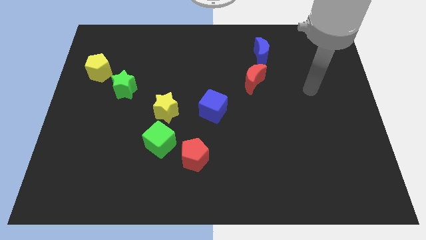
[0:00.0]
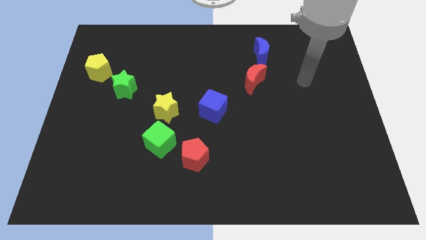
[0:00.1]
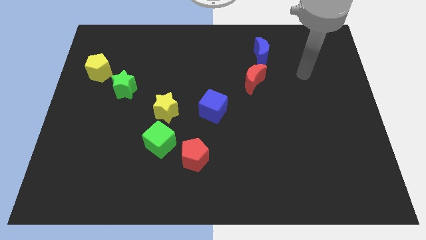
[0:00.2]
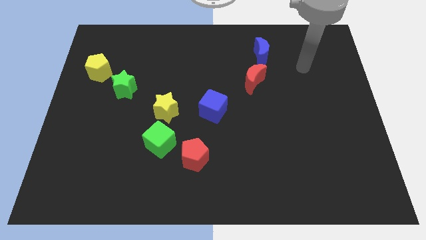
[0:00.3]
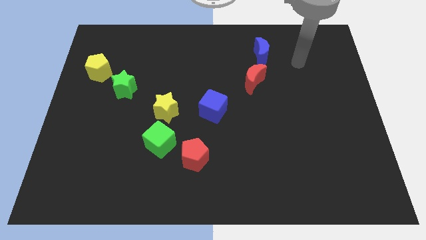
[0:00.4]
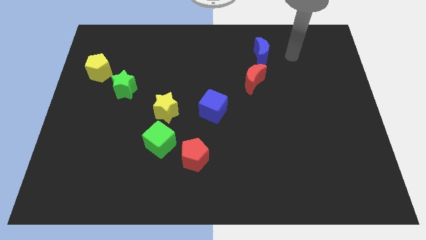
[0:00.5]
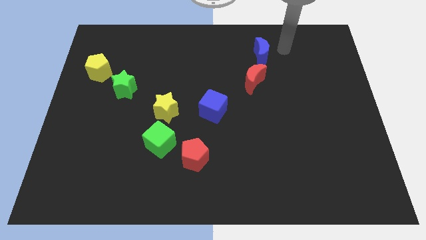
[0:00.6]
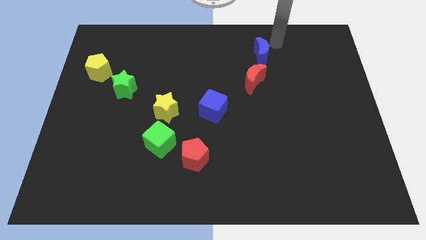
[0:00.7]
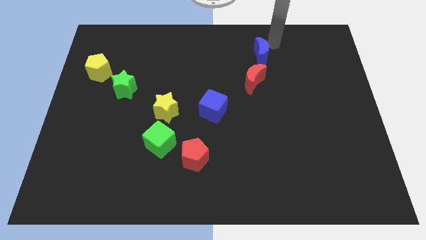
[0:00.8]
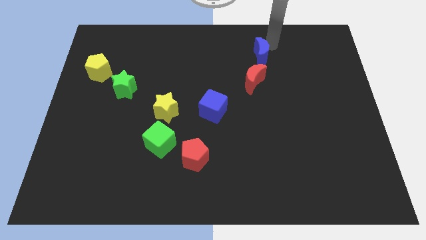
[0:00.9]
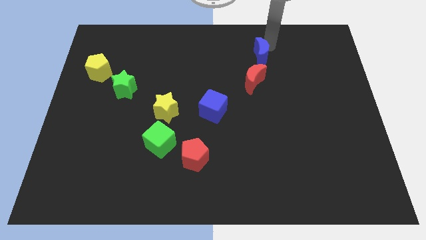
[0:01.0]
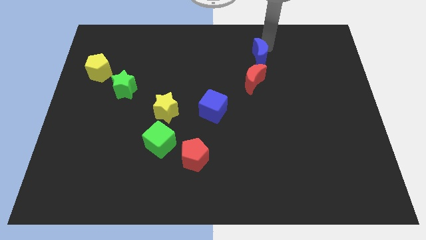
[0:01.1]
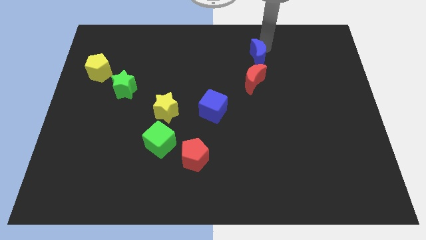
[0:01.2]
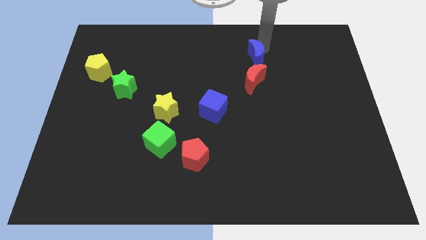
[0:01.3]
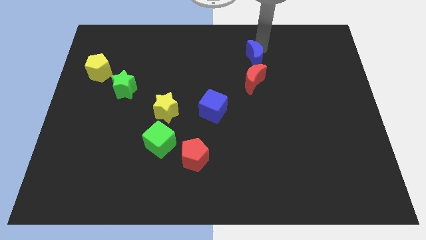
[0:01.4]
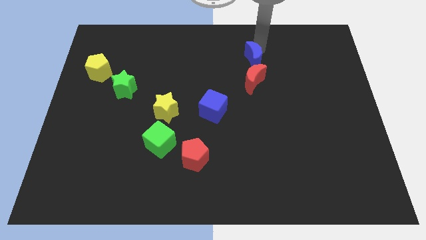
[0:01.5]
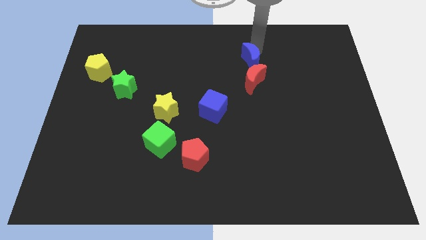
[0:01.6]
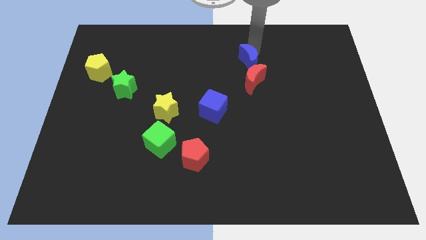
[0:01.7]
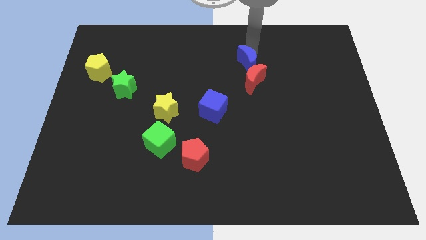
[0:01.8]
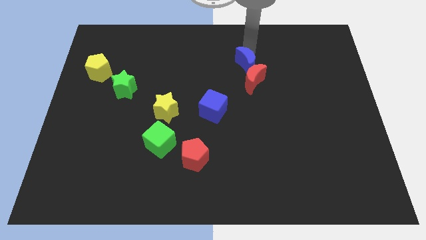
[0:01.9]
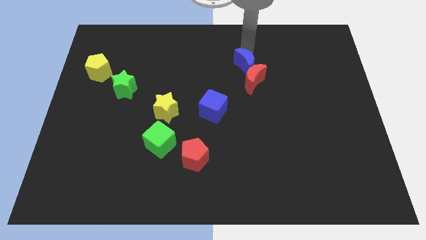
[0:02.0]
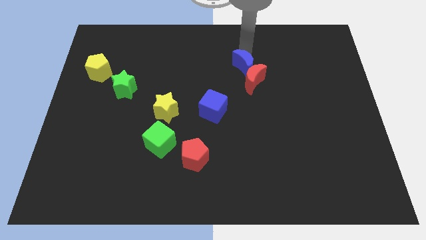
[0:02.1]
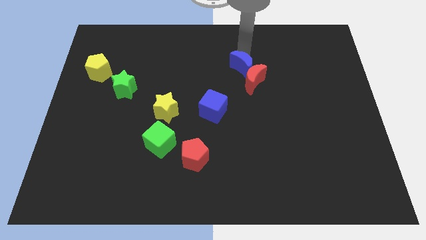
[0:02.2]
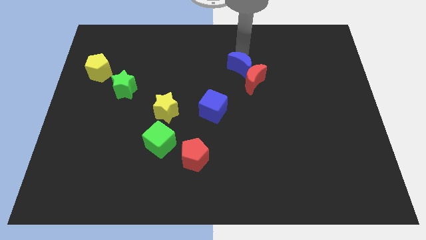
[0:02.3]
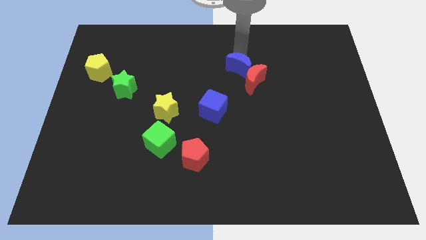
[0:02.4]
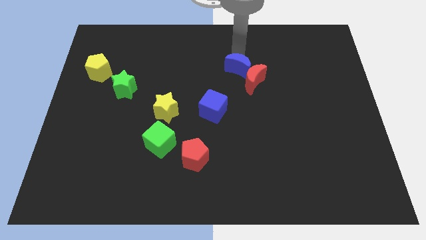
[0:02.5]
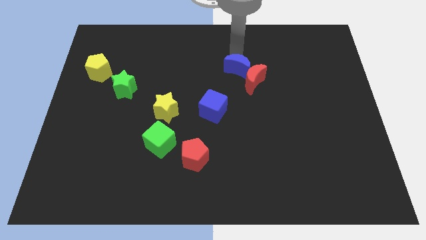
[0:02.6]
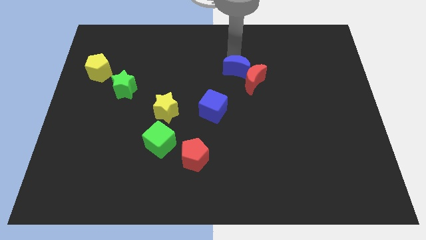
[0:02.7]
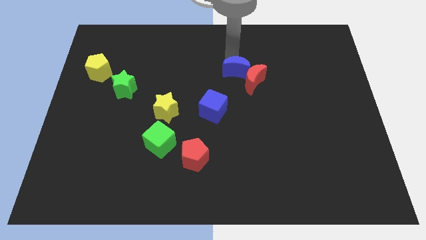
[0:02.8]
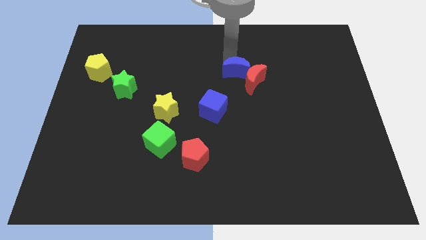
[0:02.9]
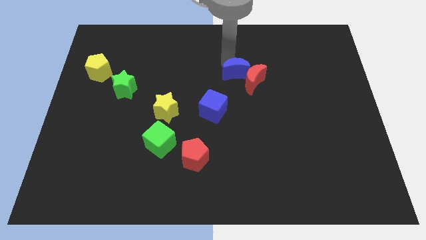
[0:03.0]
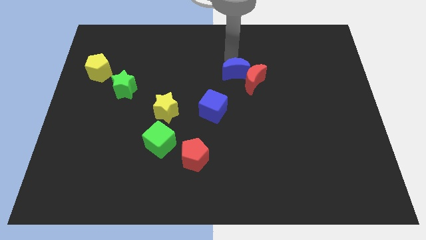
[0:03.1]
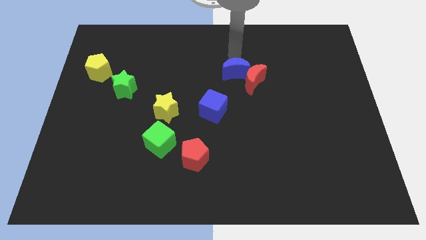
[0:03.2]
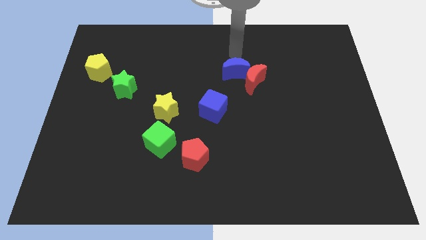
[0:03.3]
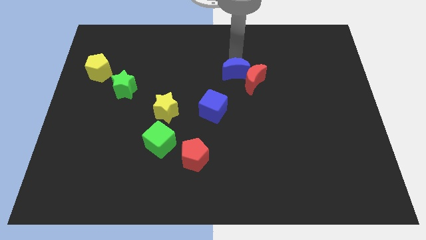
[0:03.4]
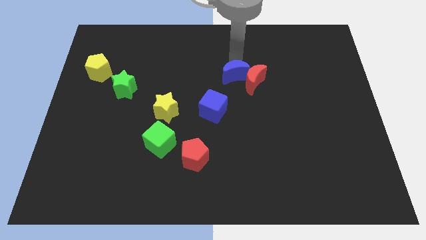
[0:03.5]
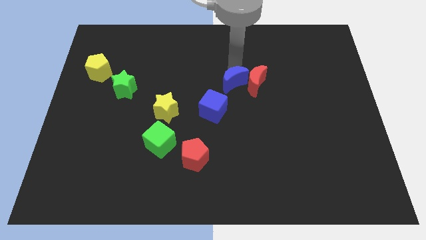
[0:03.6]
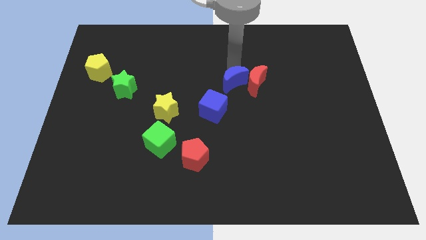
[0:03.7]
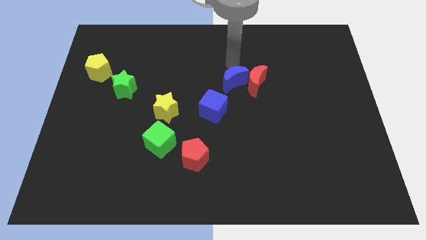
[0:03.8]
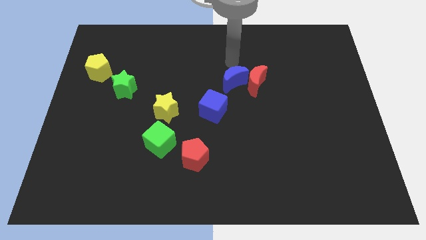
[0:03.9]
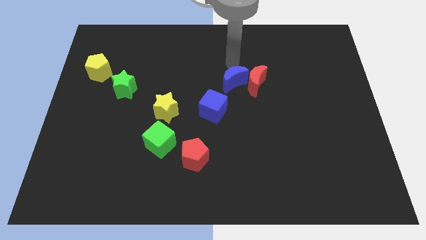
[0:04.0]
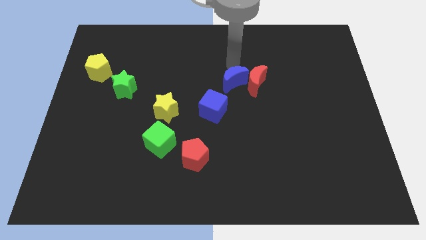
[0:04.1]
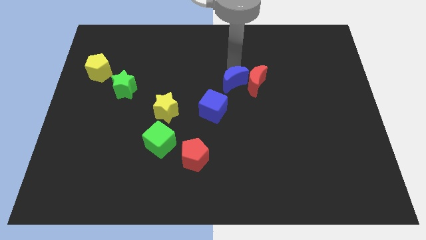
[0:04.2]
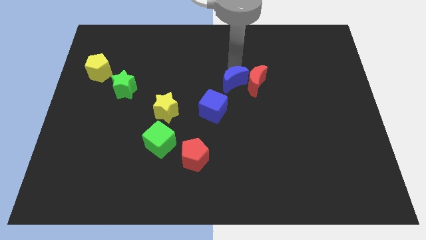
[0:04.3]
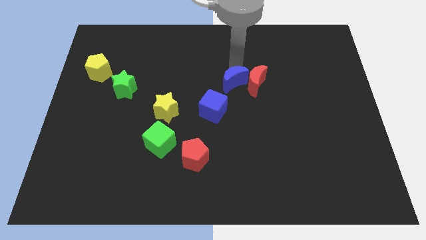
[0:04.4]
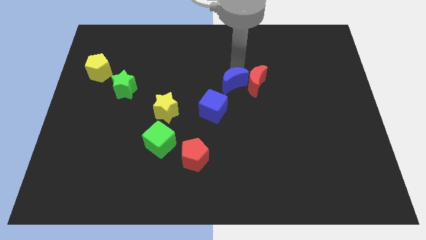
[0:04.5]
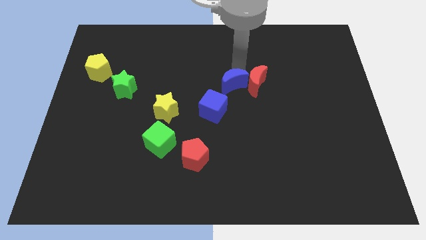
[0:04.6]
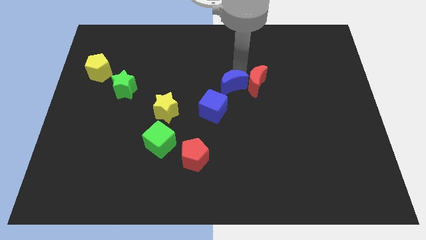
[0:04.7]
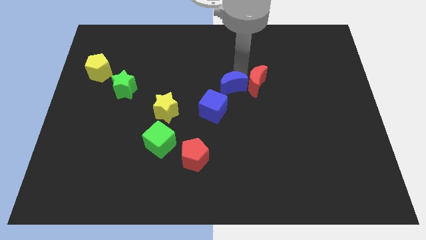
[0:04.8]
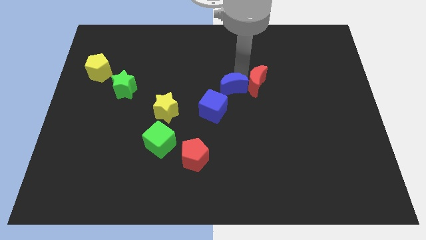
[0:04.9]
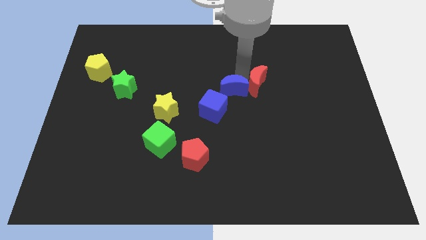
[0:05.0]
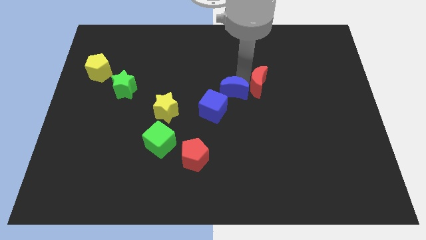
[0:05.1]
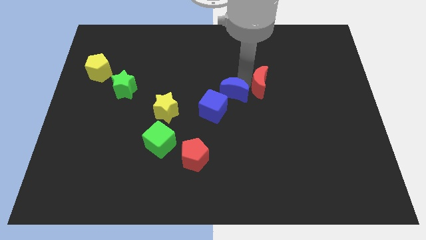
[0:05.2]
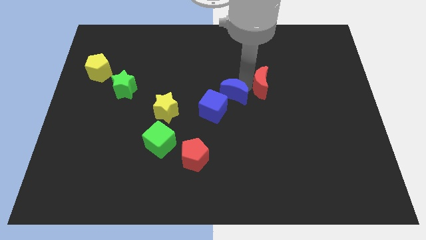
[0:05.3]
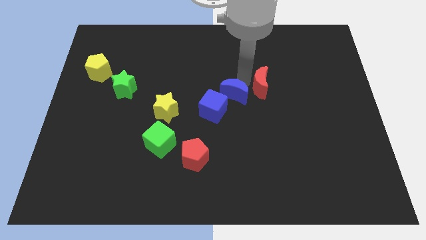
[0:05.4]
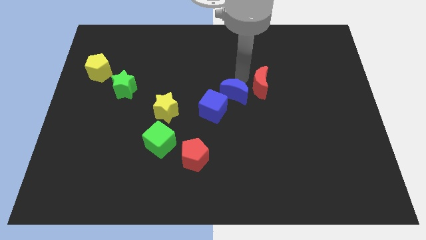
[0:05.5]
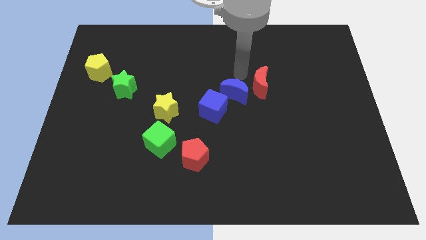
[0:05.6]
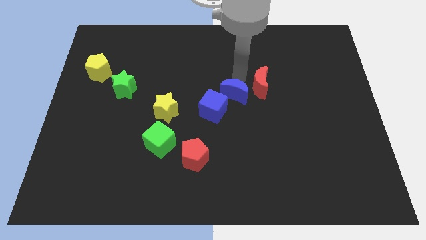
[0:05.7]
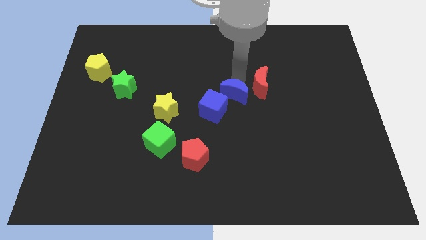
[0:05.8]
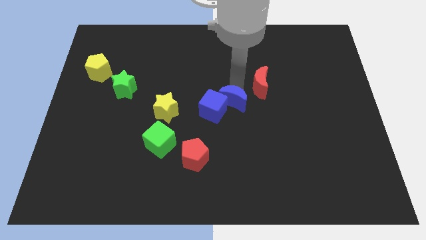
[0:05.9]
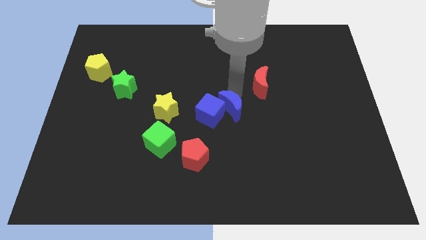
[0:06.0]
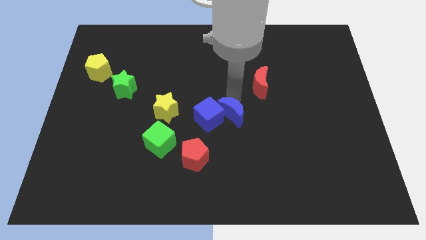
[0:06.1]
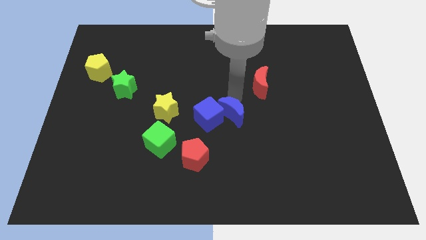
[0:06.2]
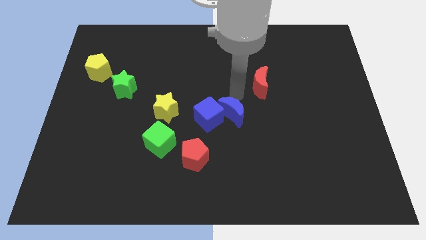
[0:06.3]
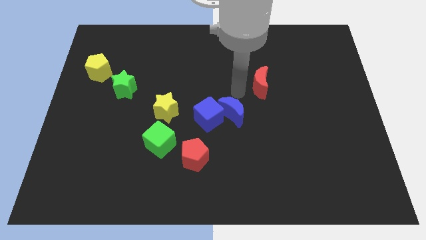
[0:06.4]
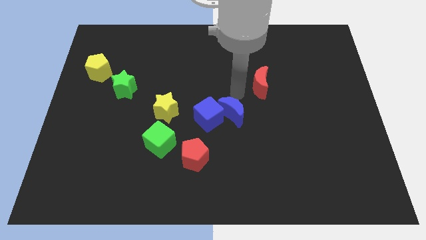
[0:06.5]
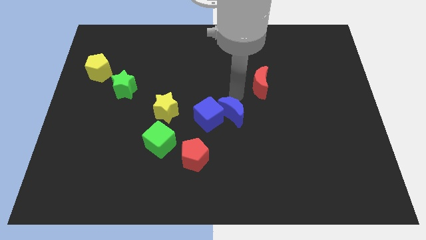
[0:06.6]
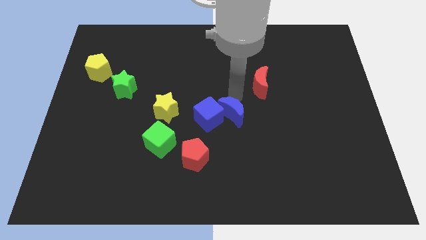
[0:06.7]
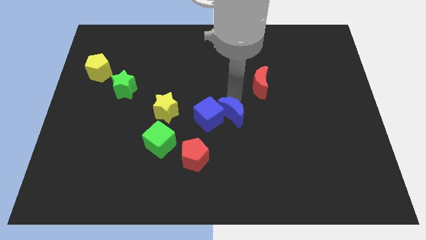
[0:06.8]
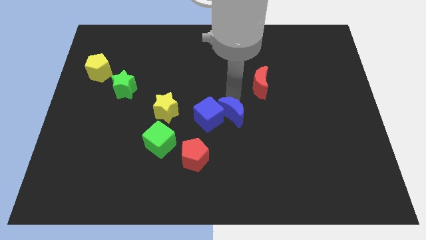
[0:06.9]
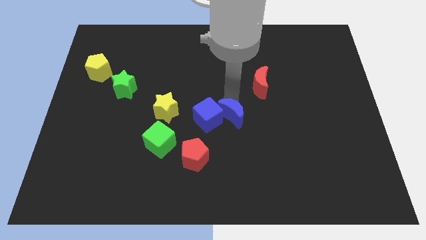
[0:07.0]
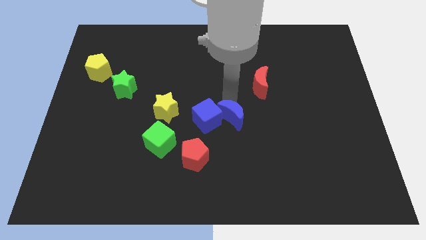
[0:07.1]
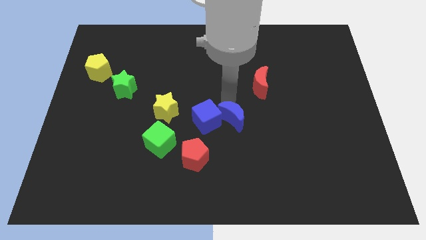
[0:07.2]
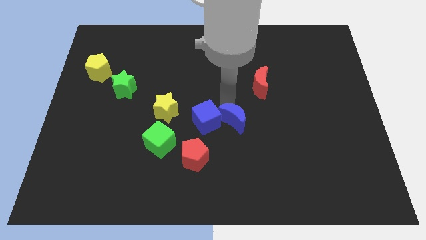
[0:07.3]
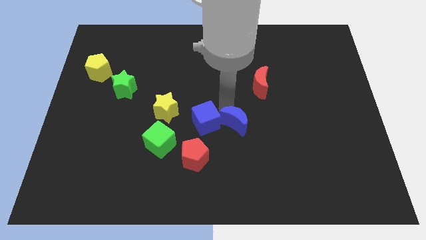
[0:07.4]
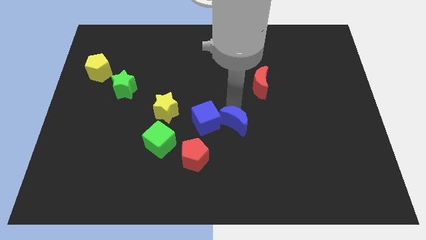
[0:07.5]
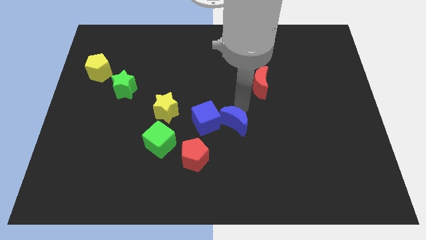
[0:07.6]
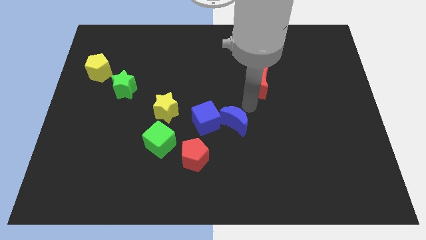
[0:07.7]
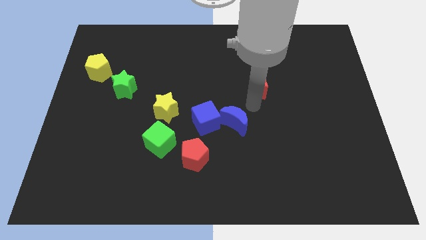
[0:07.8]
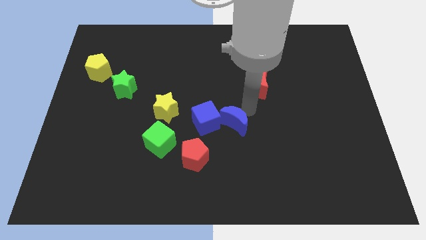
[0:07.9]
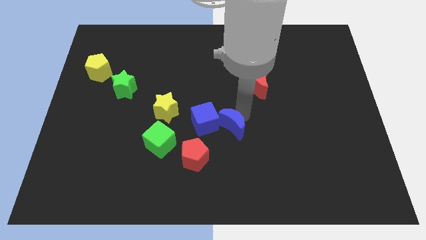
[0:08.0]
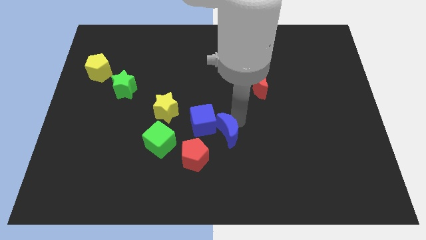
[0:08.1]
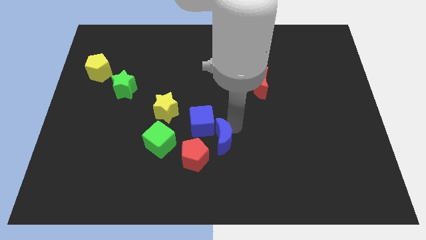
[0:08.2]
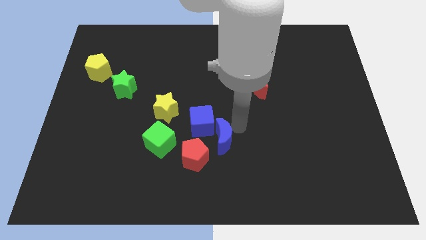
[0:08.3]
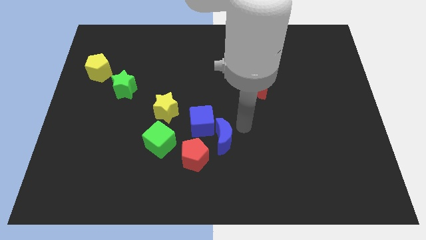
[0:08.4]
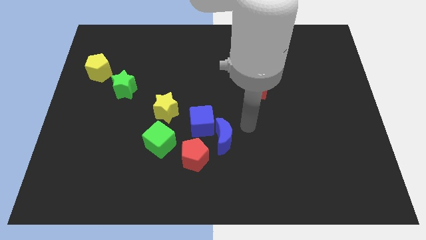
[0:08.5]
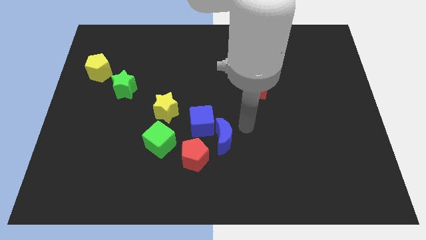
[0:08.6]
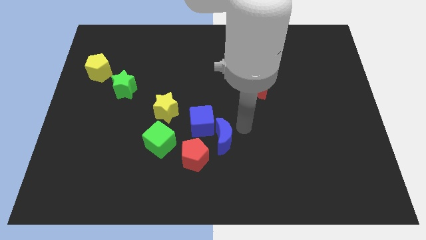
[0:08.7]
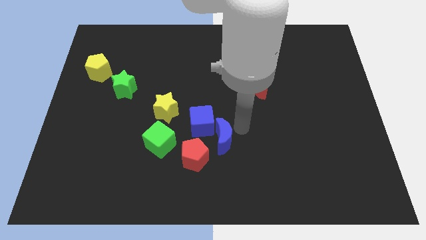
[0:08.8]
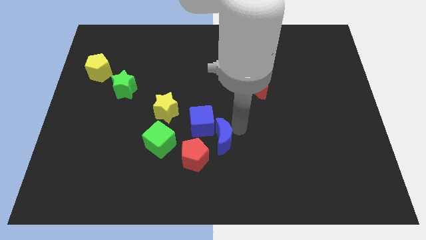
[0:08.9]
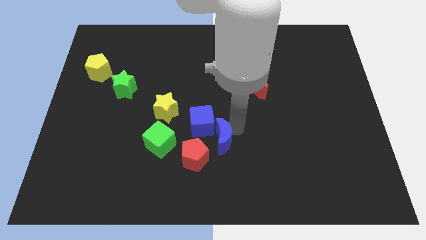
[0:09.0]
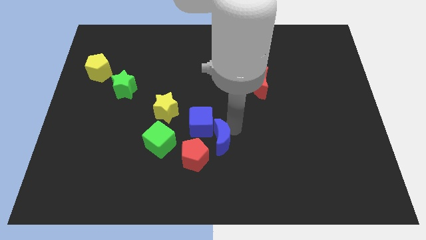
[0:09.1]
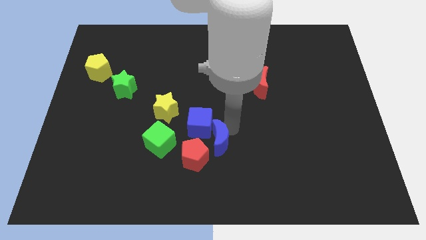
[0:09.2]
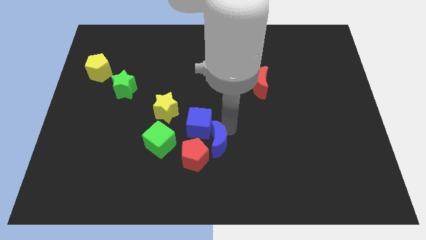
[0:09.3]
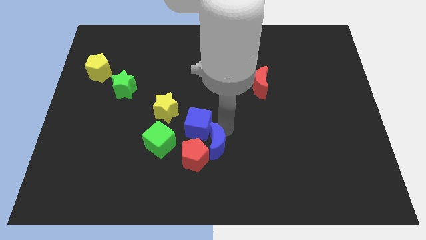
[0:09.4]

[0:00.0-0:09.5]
move the blue moon next to the red pentagon
